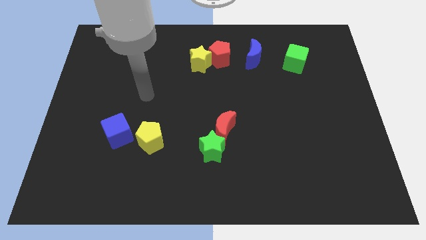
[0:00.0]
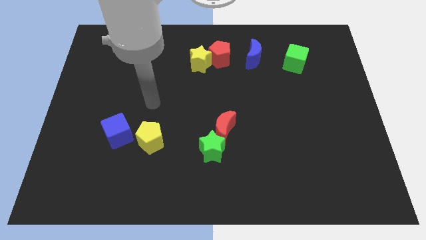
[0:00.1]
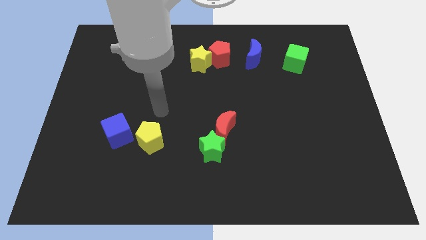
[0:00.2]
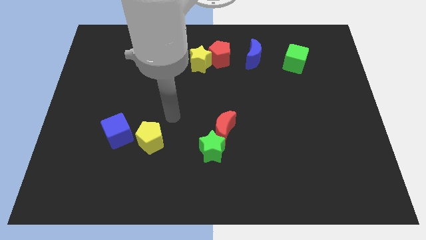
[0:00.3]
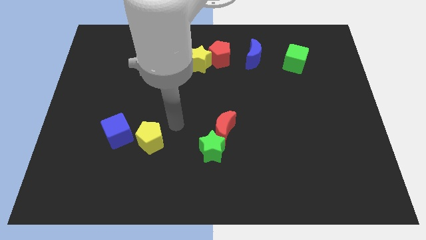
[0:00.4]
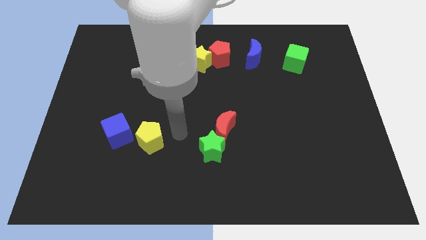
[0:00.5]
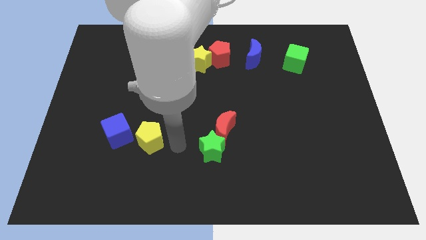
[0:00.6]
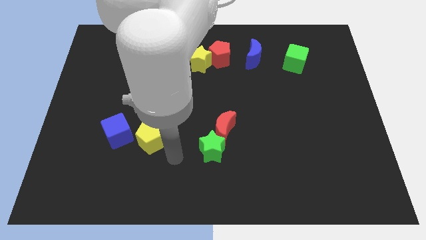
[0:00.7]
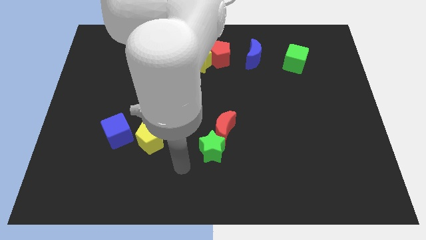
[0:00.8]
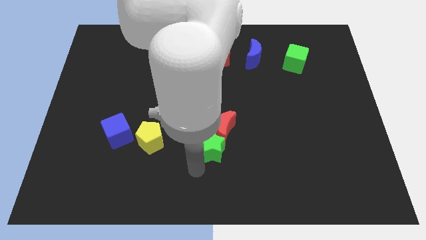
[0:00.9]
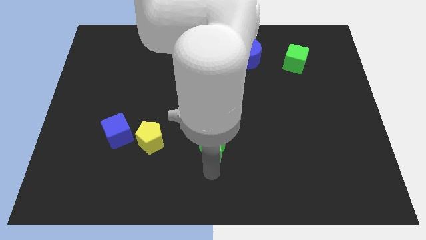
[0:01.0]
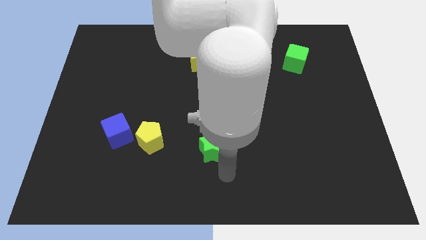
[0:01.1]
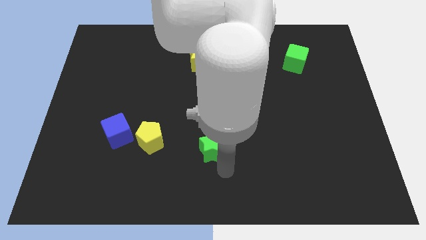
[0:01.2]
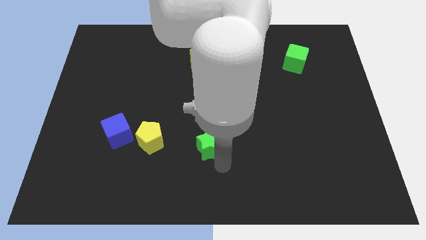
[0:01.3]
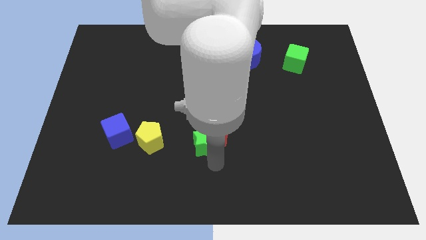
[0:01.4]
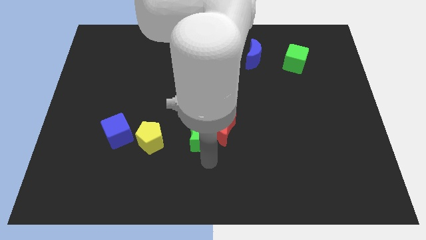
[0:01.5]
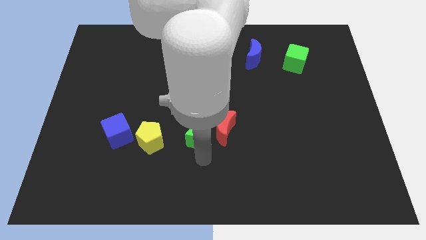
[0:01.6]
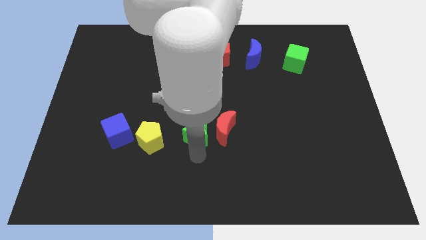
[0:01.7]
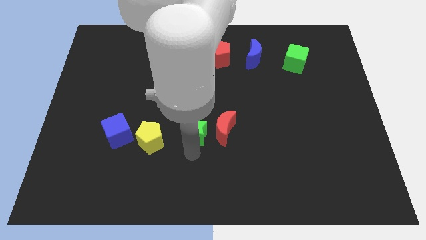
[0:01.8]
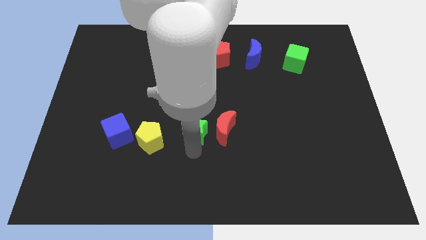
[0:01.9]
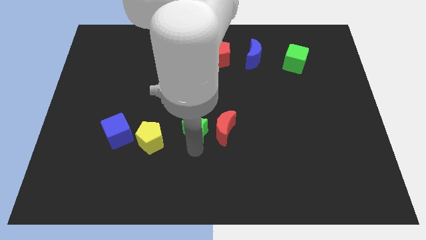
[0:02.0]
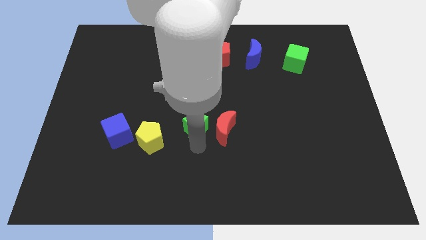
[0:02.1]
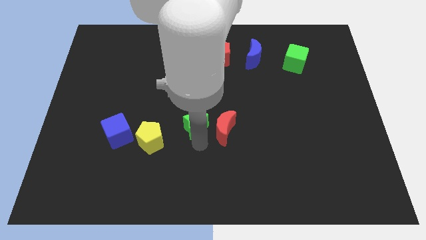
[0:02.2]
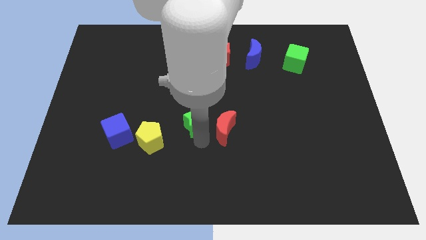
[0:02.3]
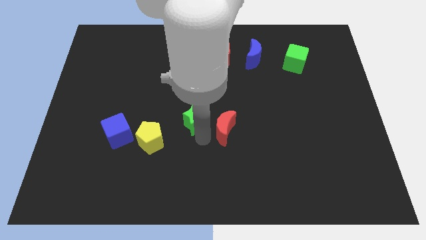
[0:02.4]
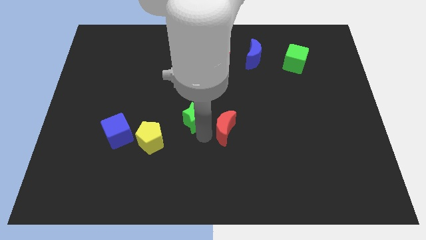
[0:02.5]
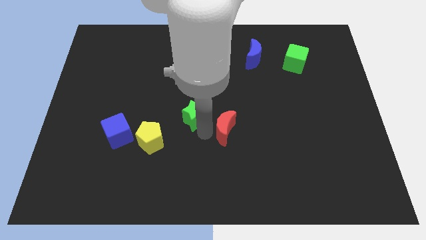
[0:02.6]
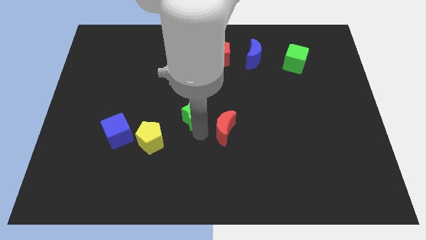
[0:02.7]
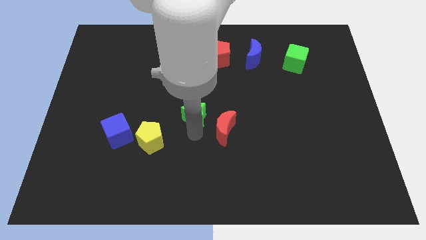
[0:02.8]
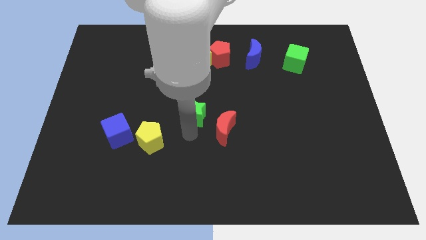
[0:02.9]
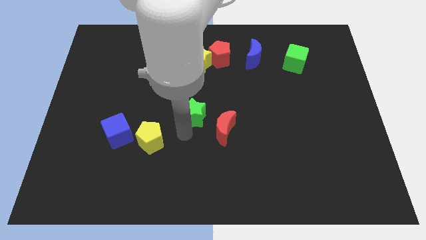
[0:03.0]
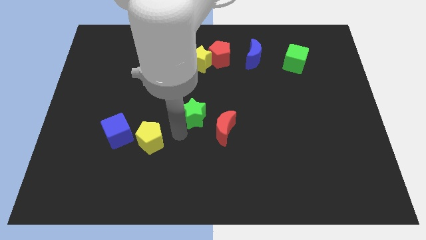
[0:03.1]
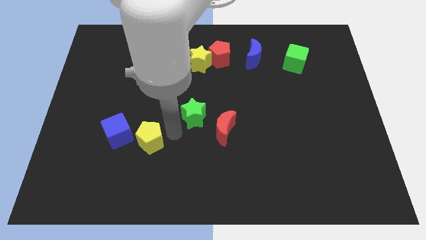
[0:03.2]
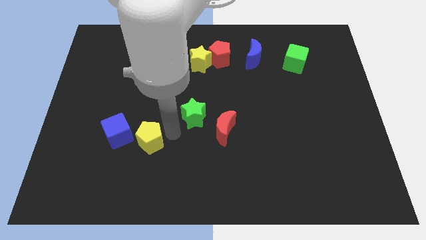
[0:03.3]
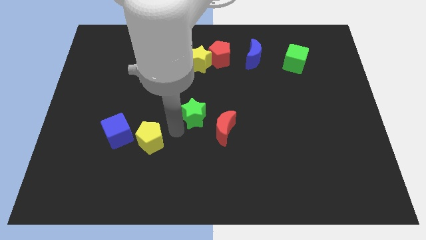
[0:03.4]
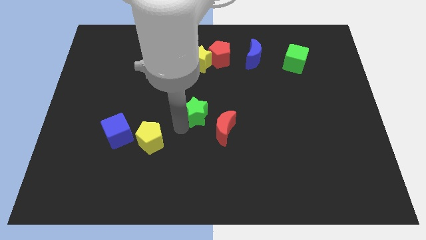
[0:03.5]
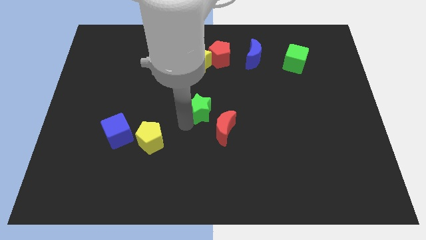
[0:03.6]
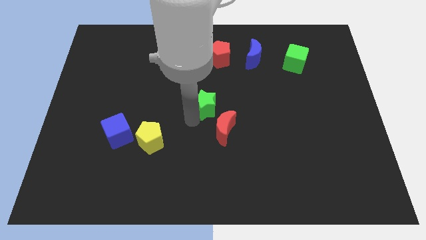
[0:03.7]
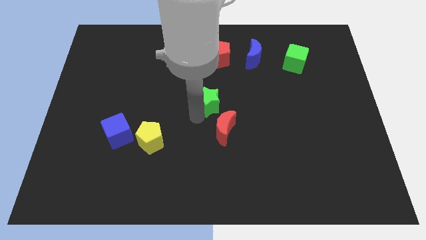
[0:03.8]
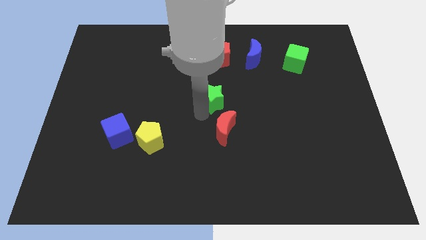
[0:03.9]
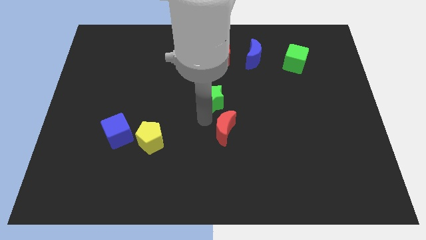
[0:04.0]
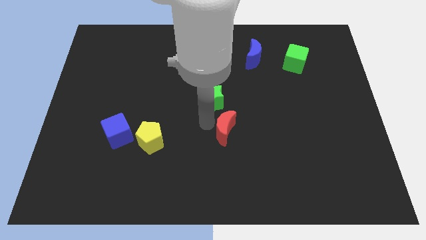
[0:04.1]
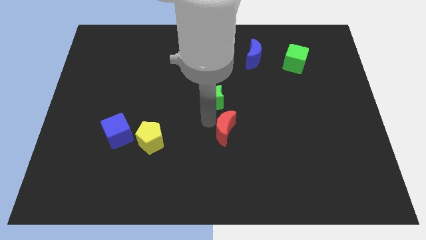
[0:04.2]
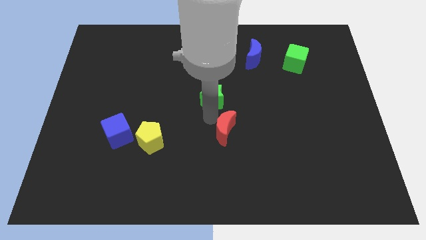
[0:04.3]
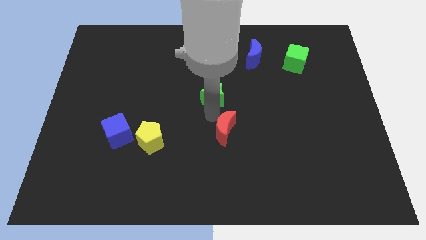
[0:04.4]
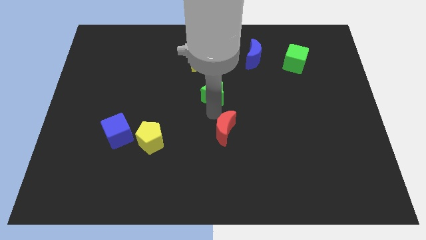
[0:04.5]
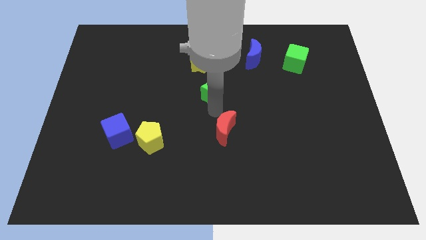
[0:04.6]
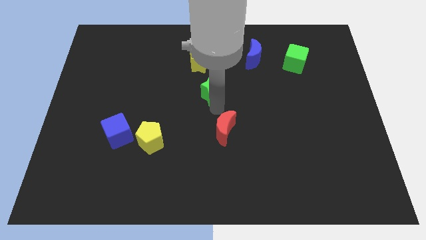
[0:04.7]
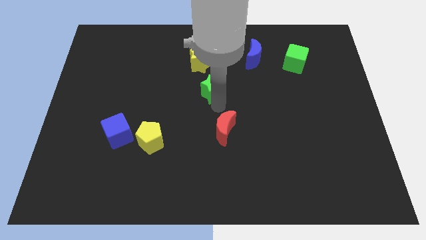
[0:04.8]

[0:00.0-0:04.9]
push the green star to the bottom right of the yellow star

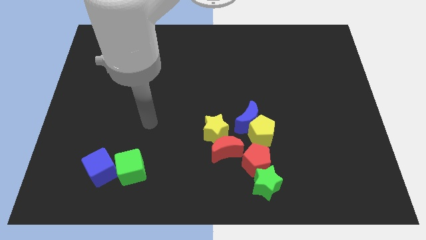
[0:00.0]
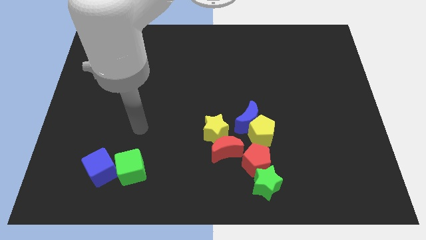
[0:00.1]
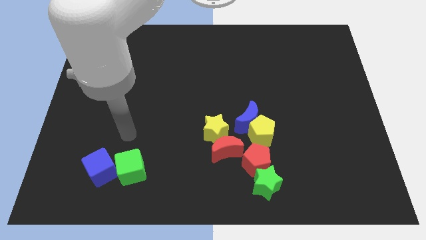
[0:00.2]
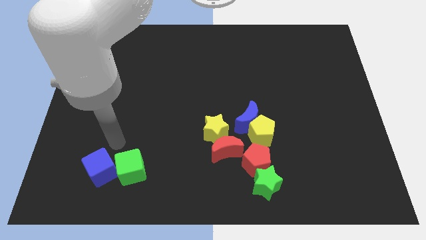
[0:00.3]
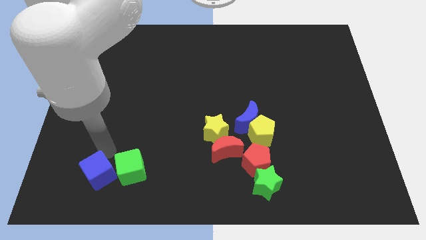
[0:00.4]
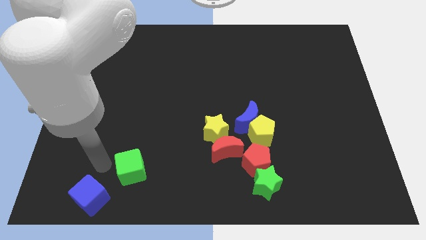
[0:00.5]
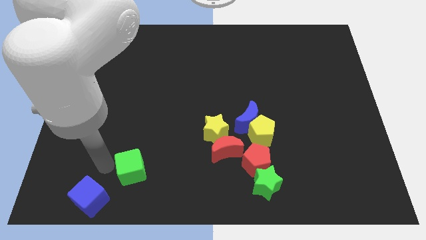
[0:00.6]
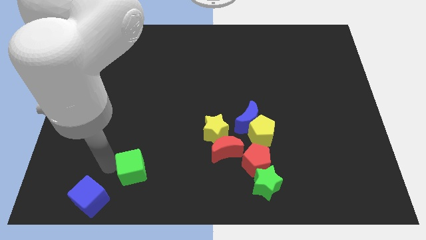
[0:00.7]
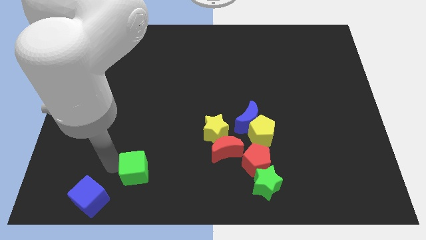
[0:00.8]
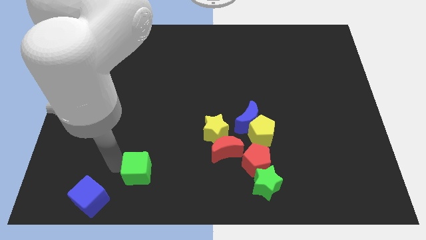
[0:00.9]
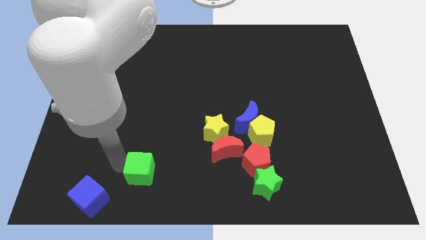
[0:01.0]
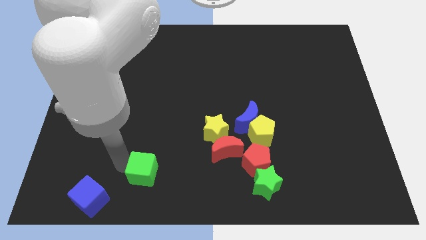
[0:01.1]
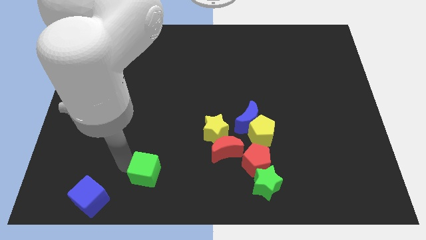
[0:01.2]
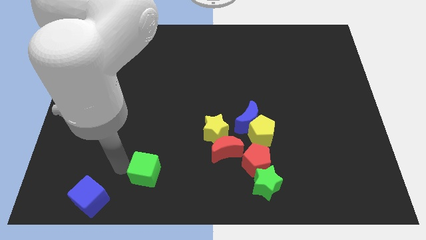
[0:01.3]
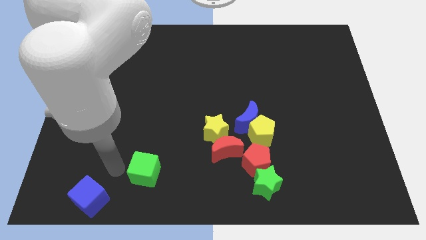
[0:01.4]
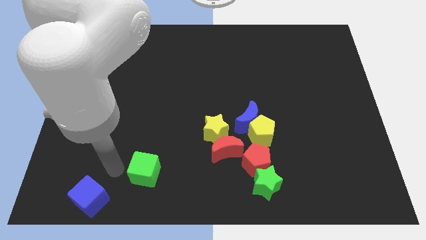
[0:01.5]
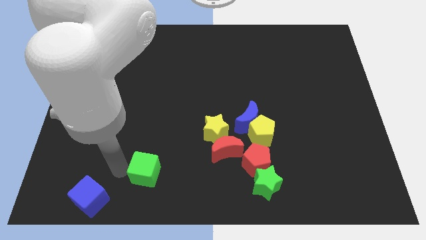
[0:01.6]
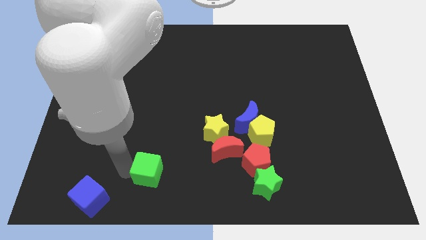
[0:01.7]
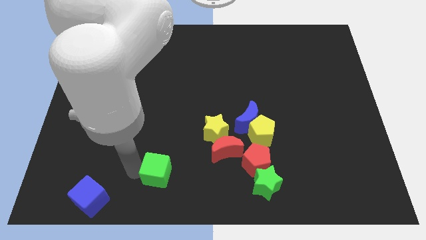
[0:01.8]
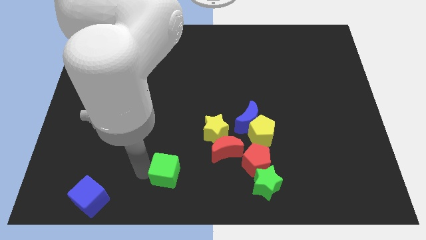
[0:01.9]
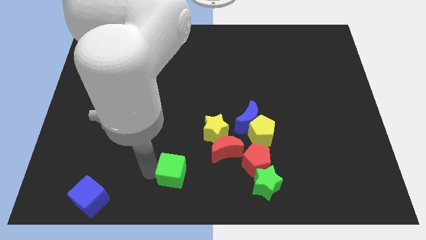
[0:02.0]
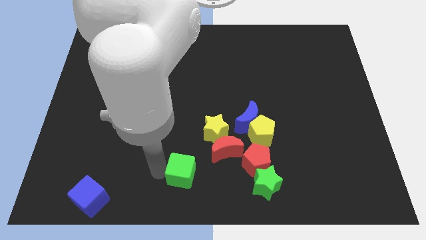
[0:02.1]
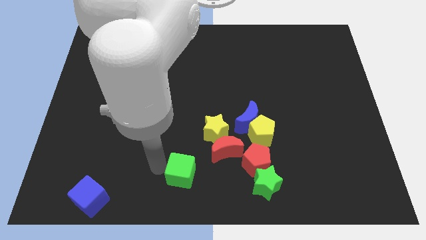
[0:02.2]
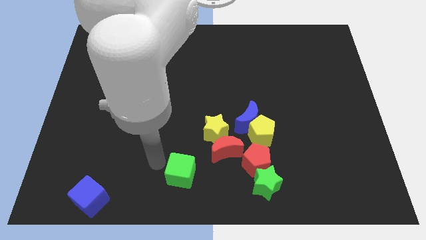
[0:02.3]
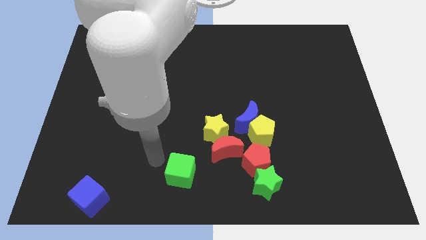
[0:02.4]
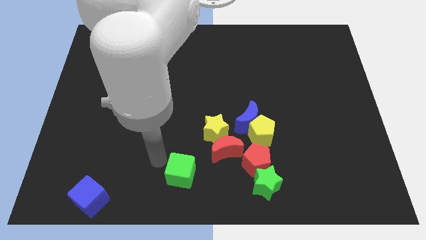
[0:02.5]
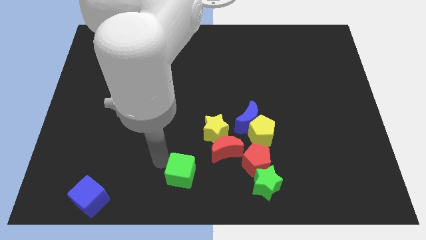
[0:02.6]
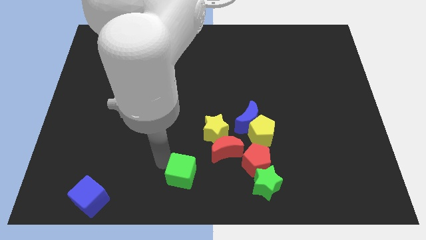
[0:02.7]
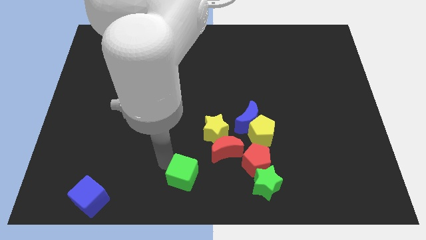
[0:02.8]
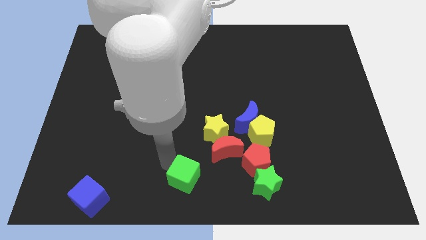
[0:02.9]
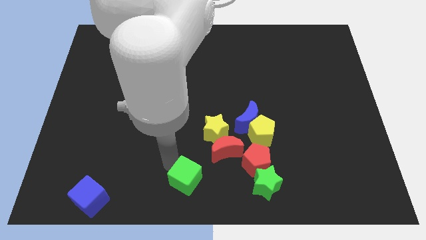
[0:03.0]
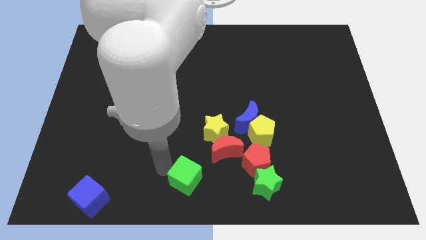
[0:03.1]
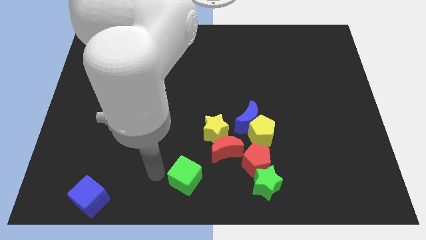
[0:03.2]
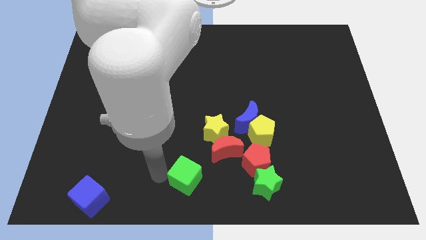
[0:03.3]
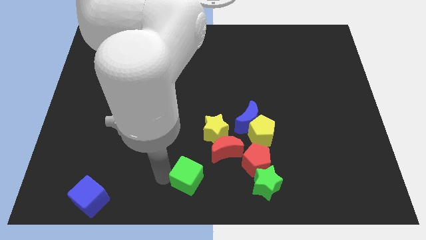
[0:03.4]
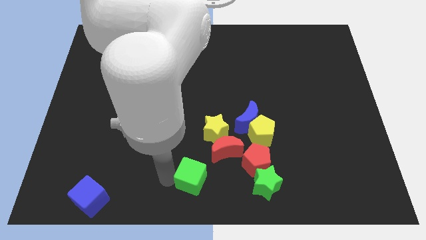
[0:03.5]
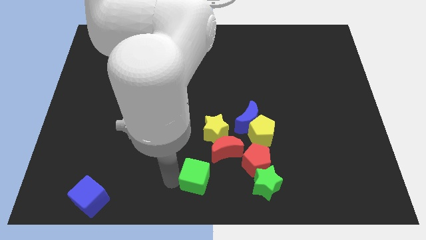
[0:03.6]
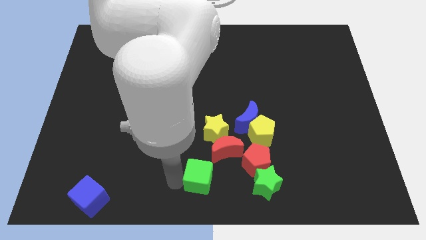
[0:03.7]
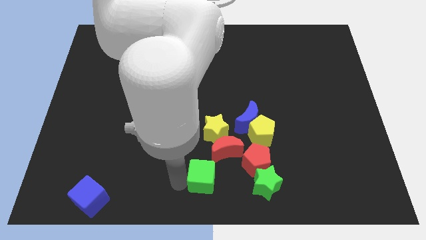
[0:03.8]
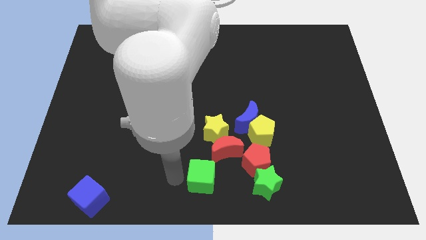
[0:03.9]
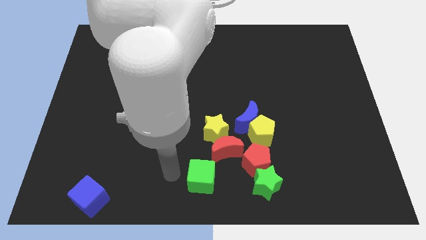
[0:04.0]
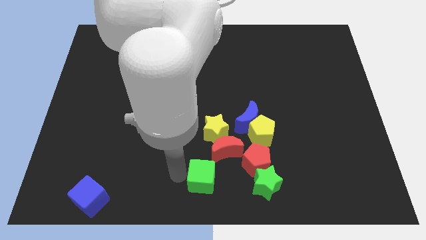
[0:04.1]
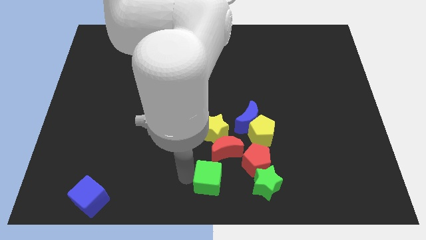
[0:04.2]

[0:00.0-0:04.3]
put the green cube diagonally down and to the left of the red pentagon
